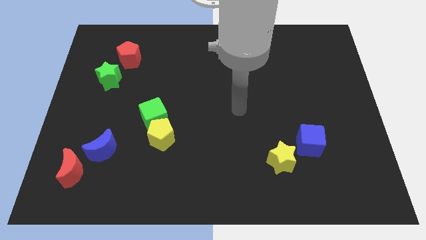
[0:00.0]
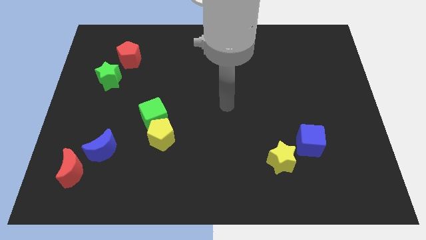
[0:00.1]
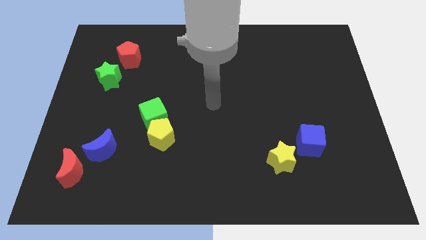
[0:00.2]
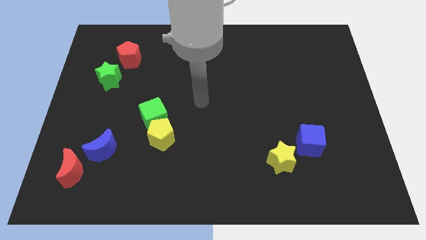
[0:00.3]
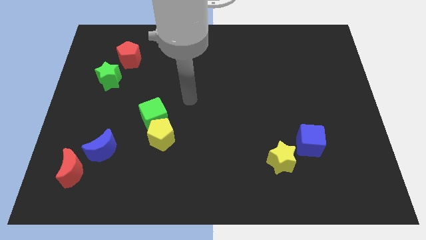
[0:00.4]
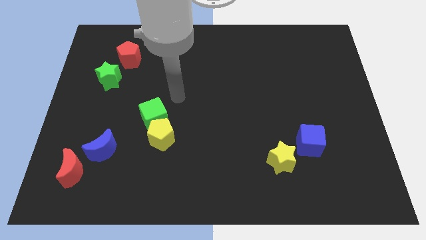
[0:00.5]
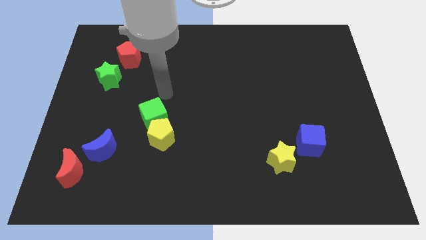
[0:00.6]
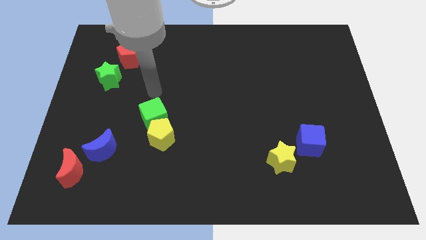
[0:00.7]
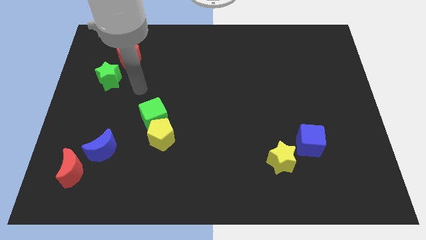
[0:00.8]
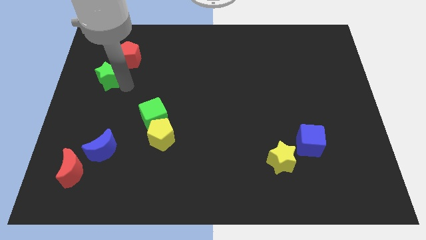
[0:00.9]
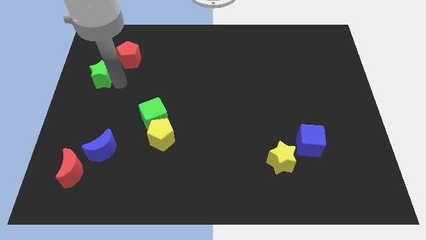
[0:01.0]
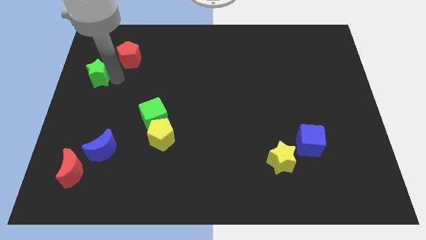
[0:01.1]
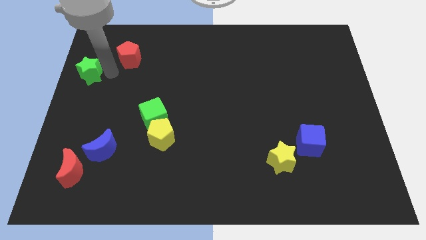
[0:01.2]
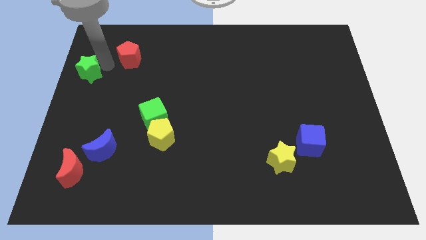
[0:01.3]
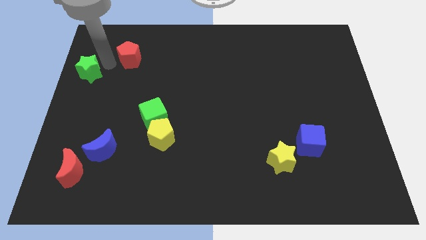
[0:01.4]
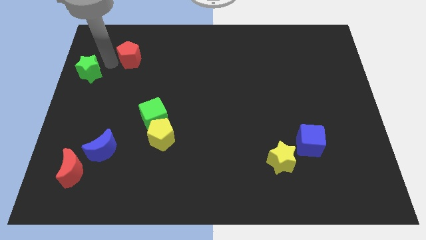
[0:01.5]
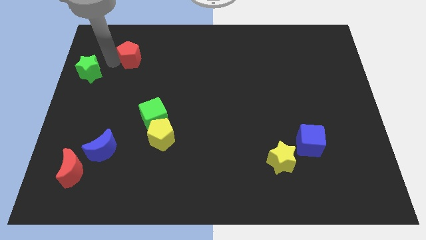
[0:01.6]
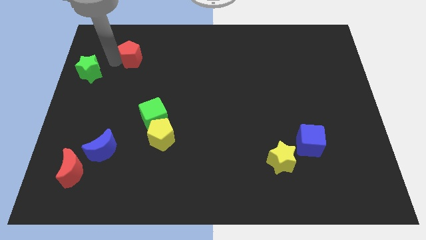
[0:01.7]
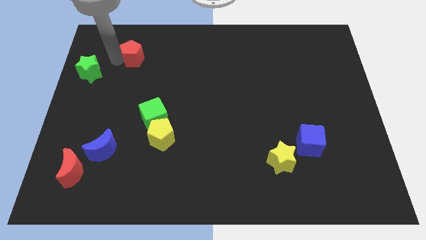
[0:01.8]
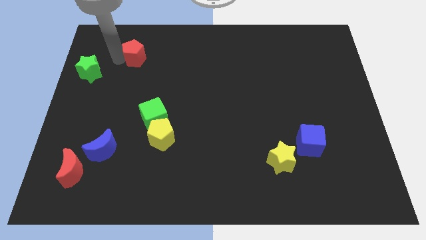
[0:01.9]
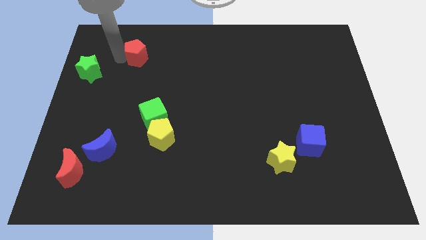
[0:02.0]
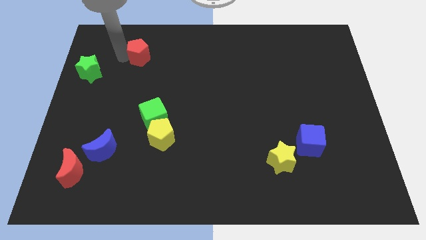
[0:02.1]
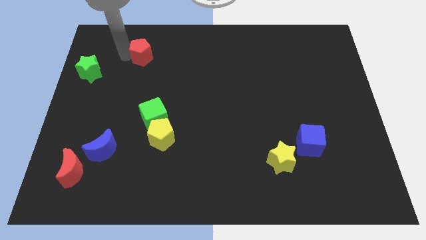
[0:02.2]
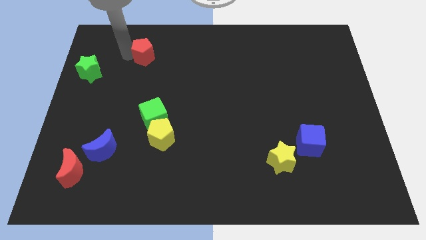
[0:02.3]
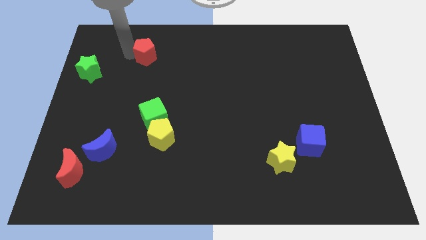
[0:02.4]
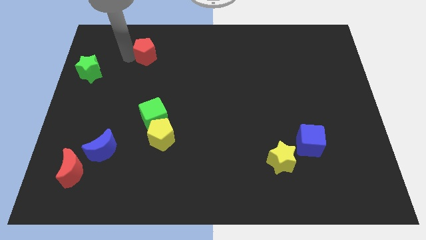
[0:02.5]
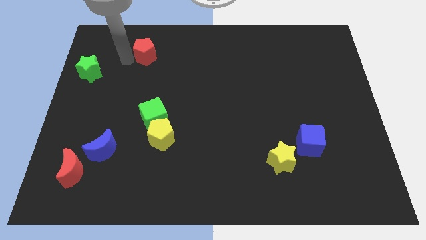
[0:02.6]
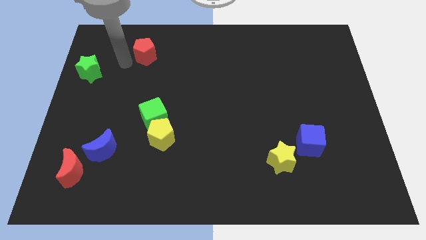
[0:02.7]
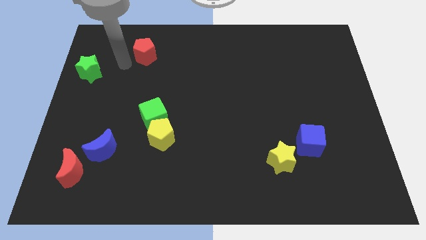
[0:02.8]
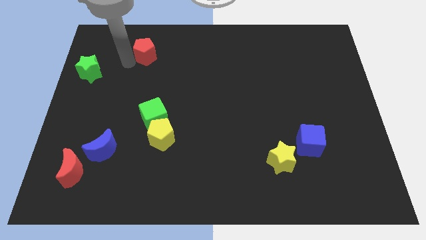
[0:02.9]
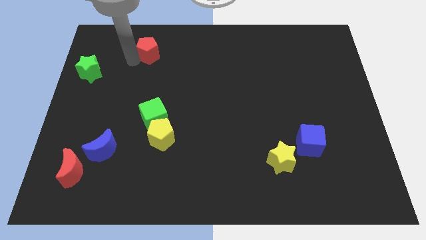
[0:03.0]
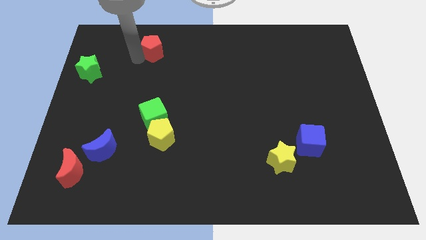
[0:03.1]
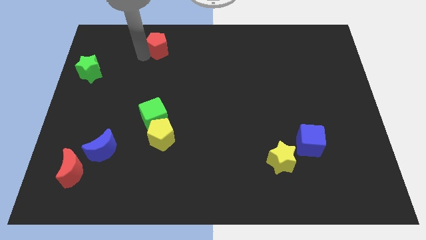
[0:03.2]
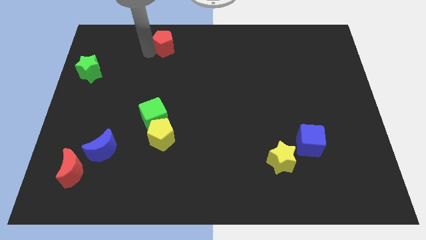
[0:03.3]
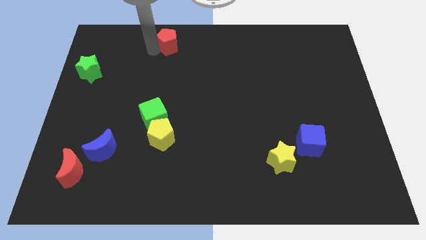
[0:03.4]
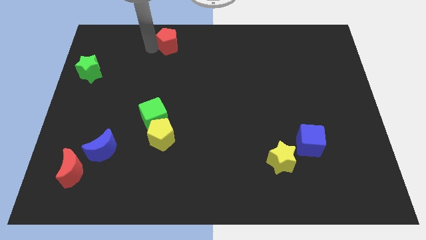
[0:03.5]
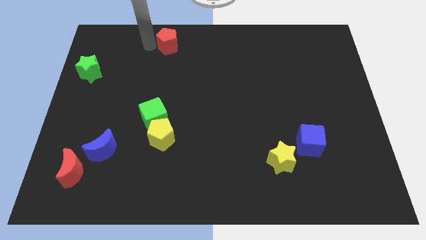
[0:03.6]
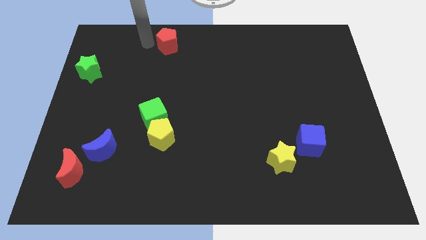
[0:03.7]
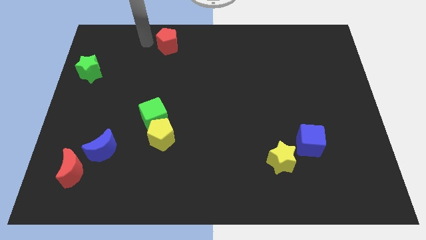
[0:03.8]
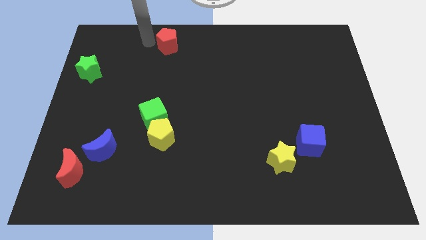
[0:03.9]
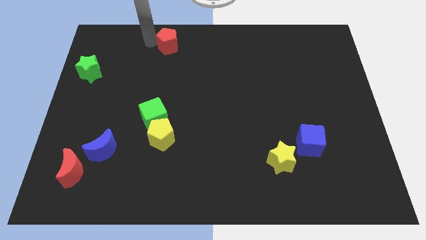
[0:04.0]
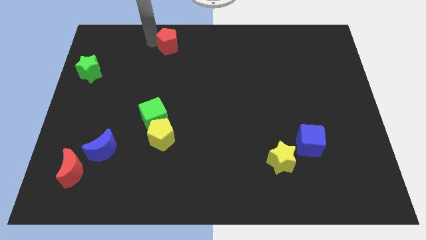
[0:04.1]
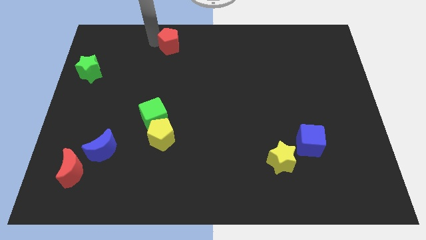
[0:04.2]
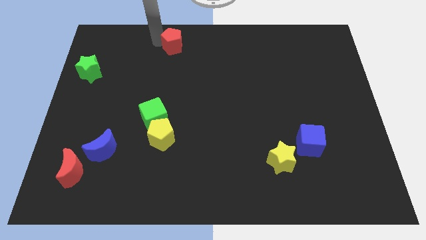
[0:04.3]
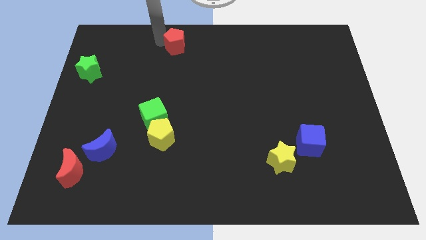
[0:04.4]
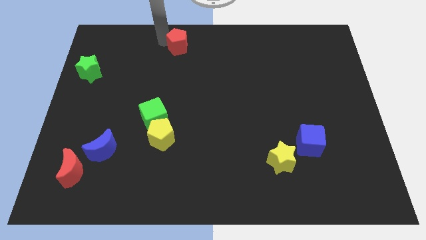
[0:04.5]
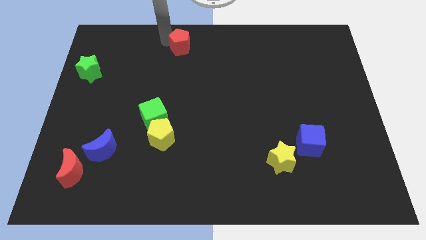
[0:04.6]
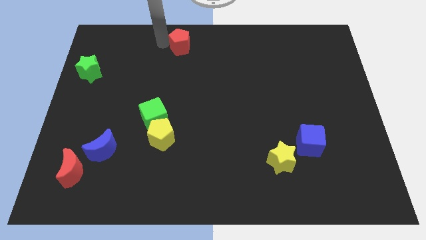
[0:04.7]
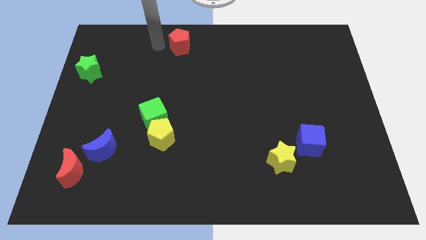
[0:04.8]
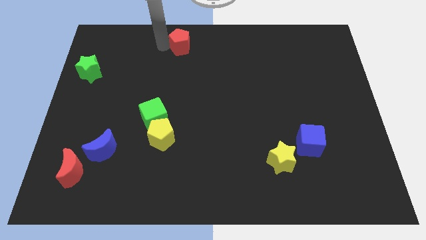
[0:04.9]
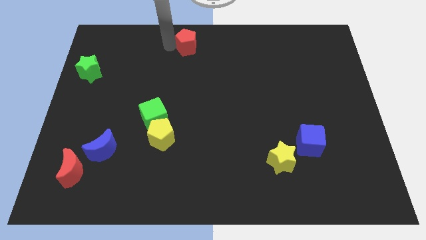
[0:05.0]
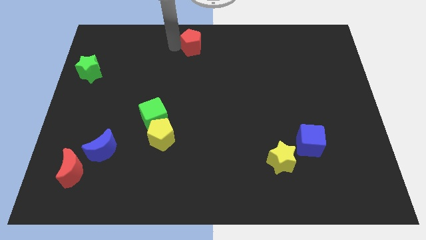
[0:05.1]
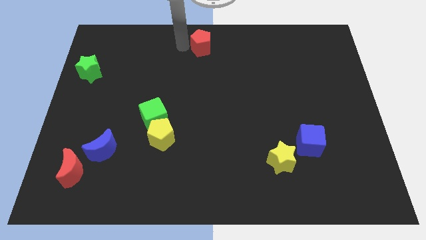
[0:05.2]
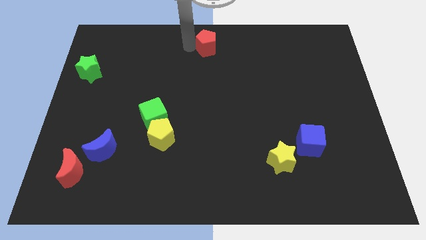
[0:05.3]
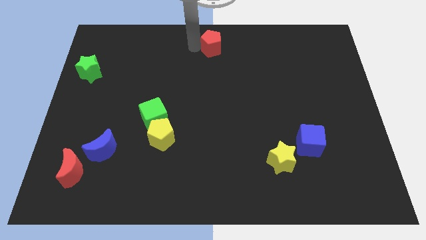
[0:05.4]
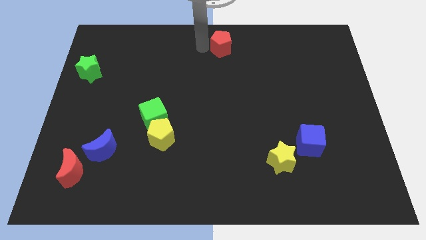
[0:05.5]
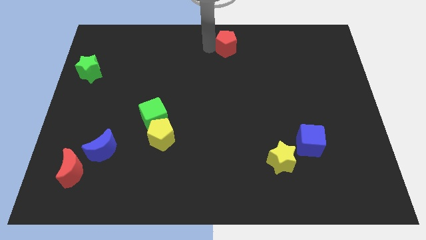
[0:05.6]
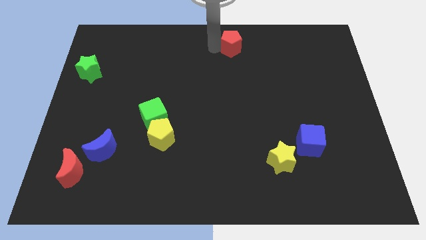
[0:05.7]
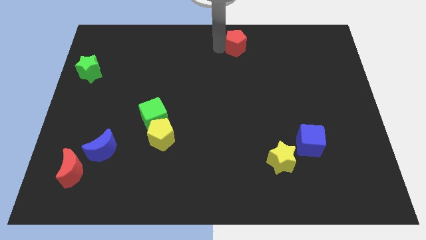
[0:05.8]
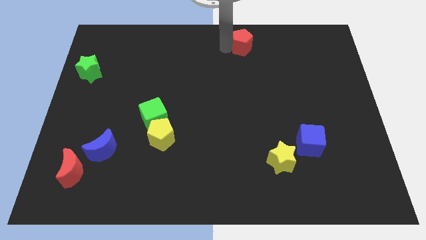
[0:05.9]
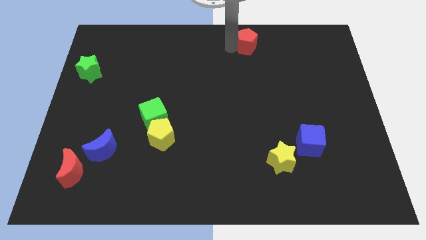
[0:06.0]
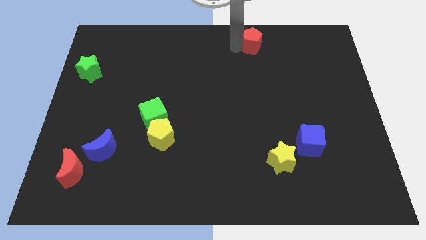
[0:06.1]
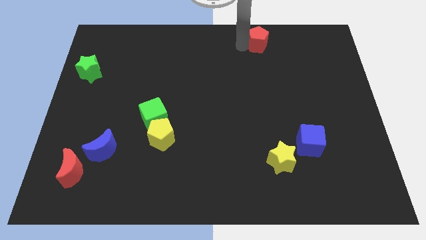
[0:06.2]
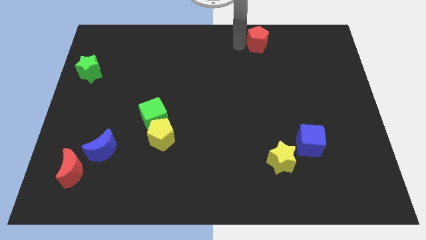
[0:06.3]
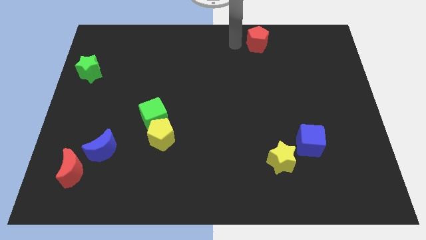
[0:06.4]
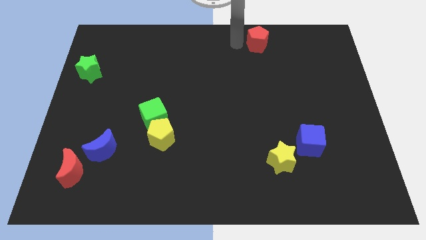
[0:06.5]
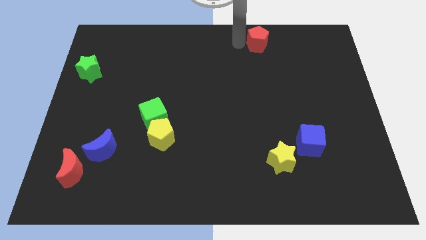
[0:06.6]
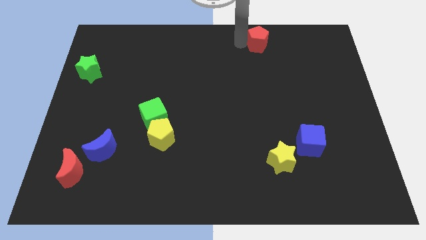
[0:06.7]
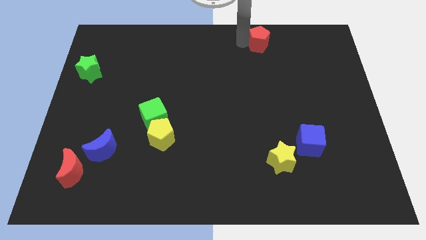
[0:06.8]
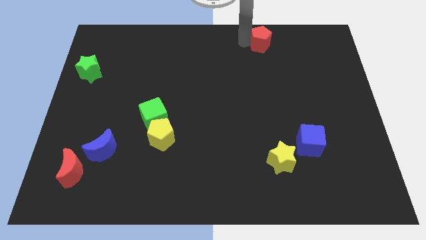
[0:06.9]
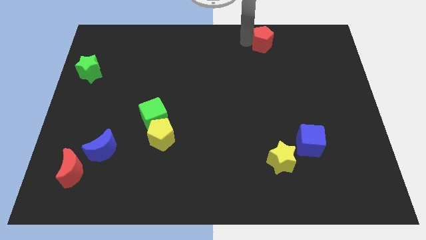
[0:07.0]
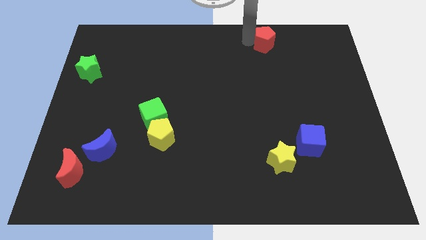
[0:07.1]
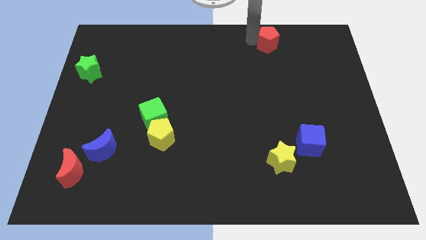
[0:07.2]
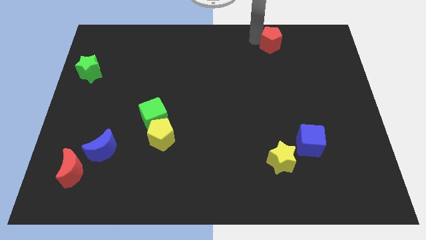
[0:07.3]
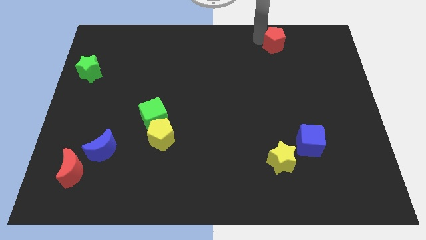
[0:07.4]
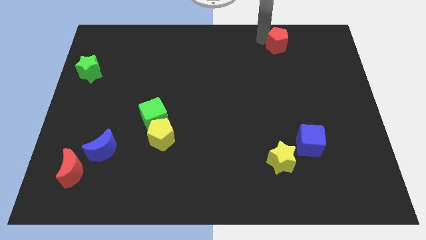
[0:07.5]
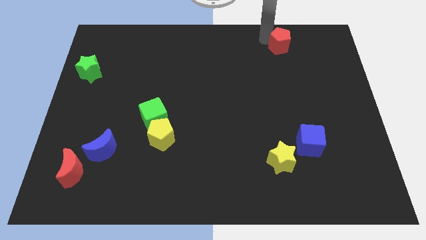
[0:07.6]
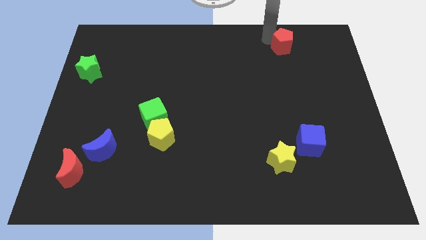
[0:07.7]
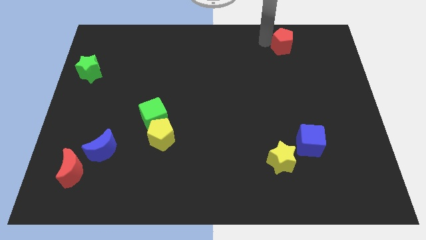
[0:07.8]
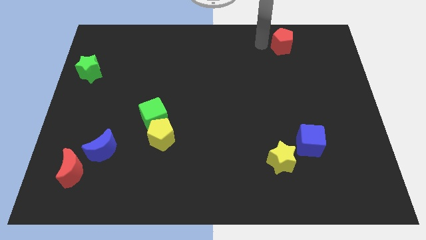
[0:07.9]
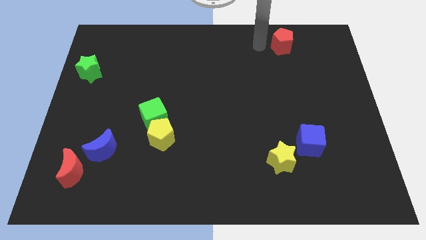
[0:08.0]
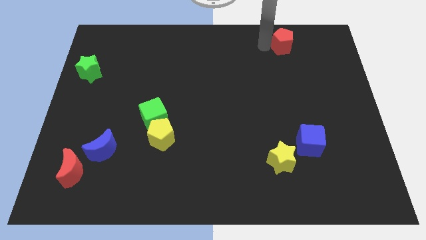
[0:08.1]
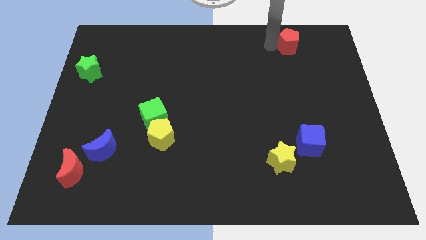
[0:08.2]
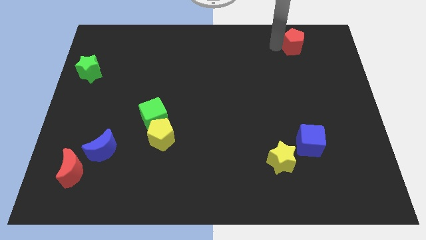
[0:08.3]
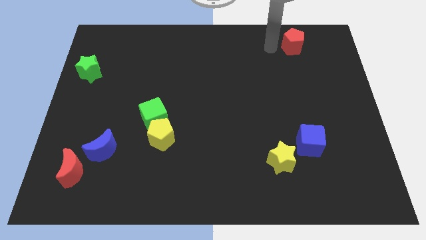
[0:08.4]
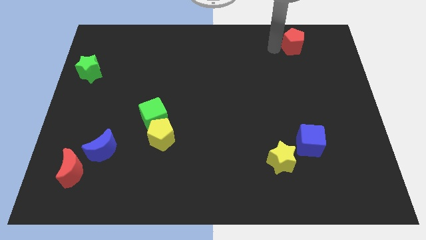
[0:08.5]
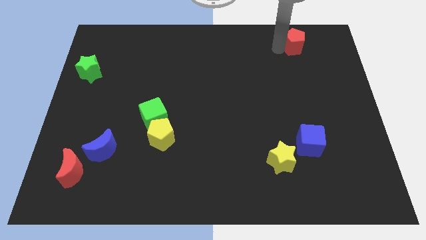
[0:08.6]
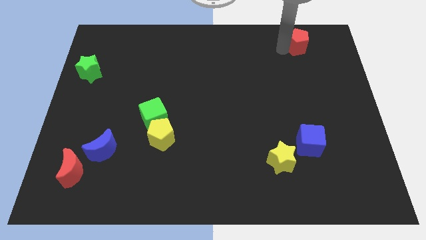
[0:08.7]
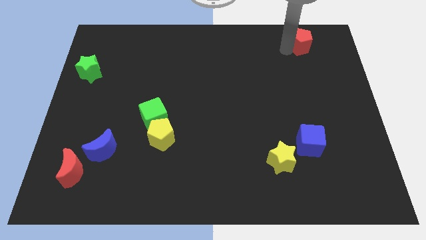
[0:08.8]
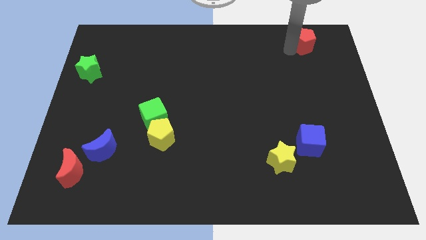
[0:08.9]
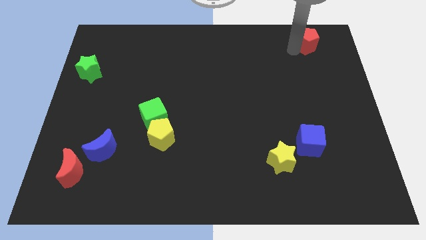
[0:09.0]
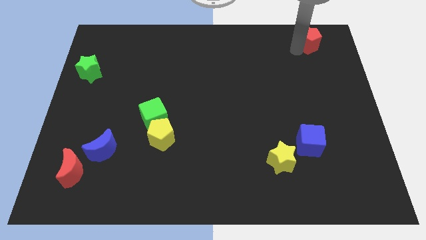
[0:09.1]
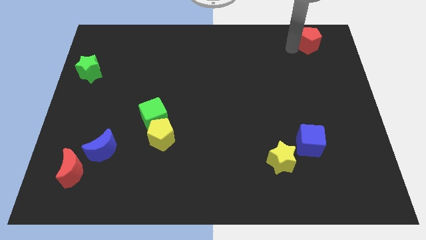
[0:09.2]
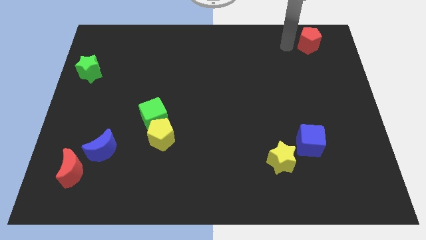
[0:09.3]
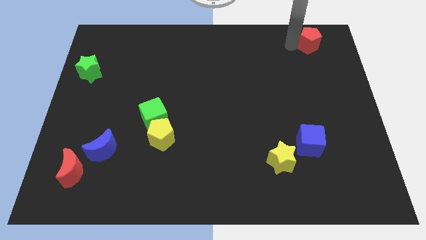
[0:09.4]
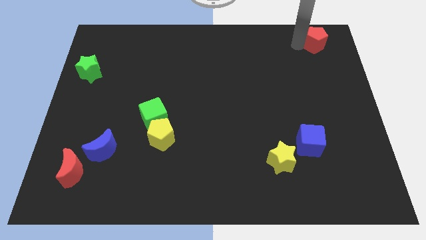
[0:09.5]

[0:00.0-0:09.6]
move the red pentagon to the top right of the board
